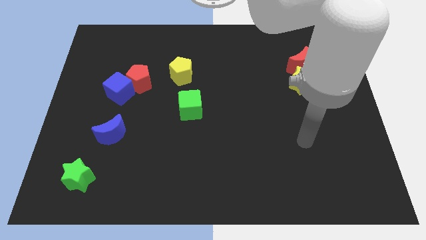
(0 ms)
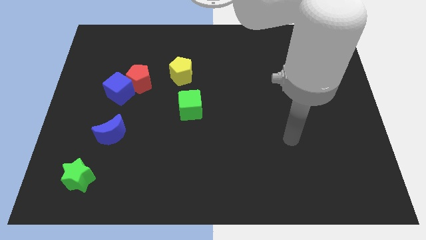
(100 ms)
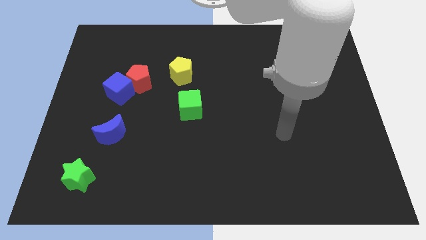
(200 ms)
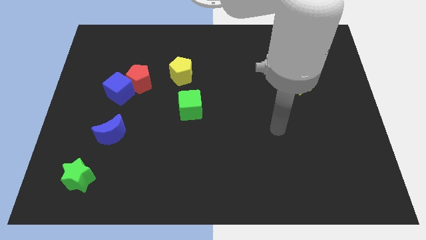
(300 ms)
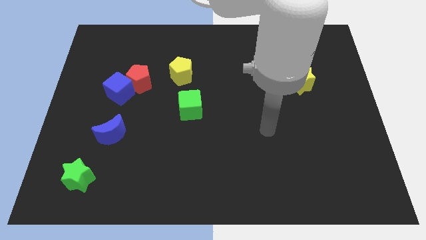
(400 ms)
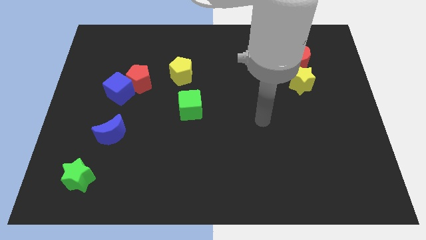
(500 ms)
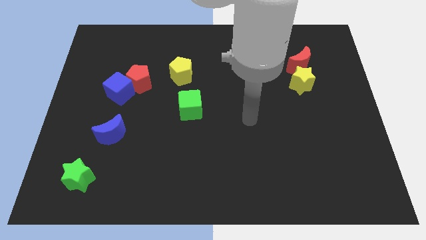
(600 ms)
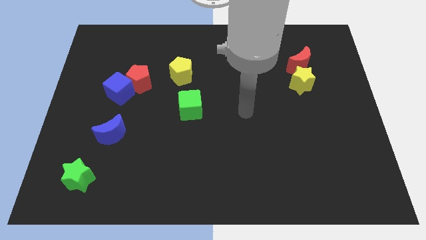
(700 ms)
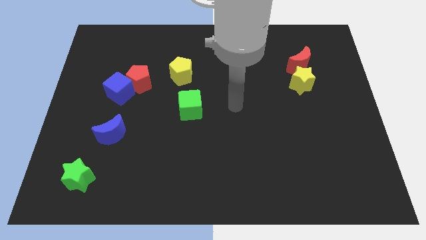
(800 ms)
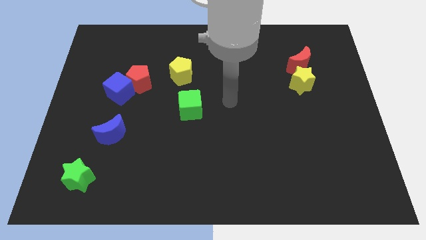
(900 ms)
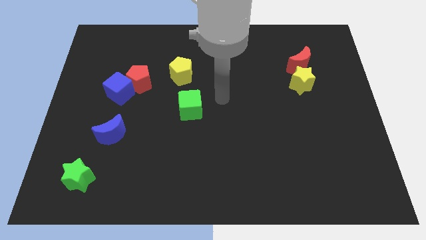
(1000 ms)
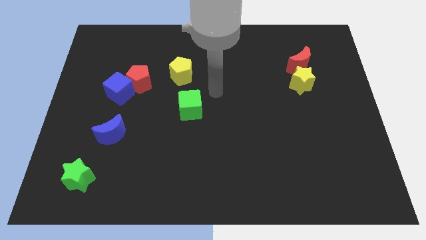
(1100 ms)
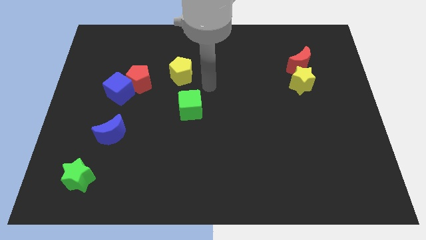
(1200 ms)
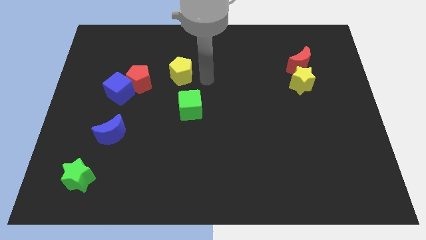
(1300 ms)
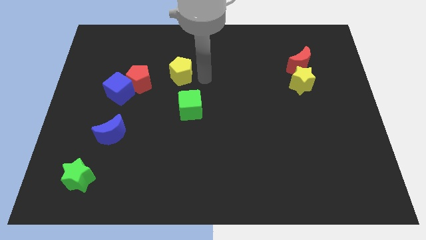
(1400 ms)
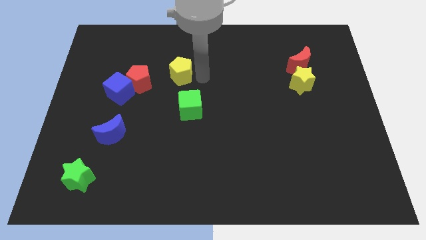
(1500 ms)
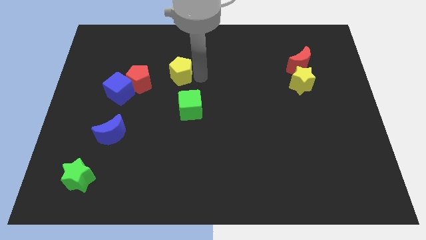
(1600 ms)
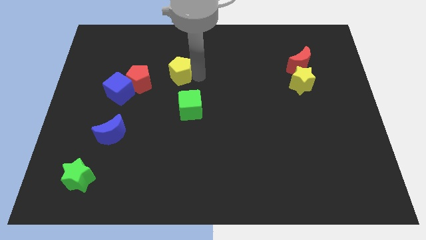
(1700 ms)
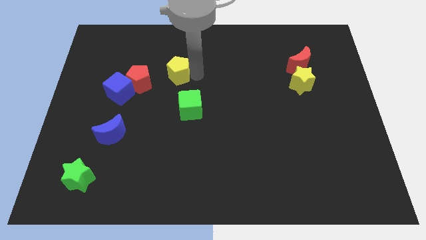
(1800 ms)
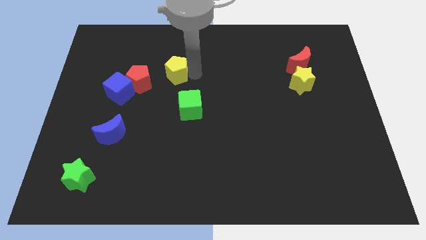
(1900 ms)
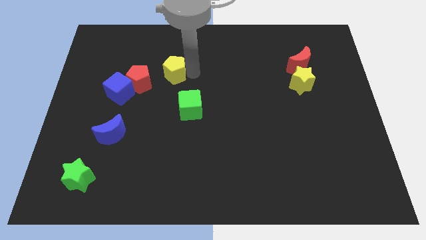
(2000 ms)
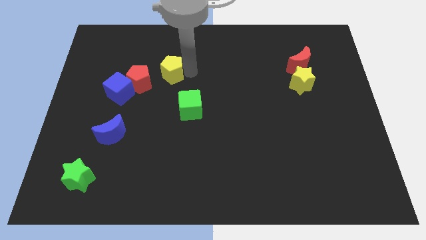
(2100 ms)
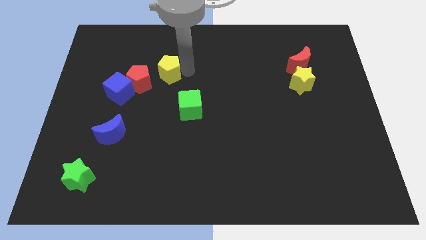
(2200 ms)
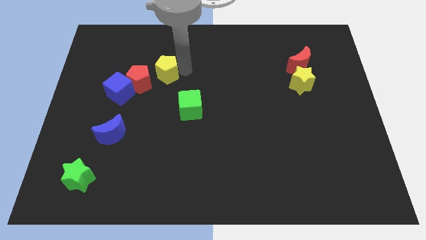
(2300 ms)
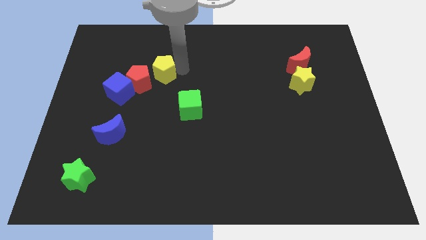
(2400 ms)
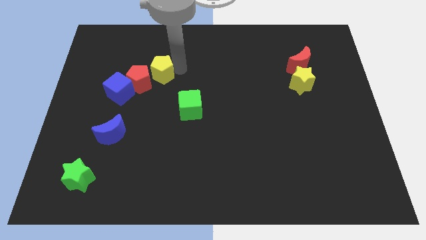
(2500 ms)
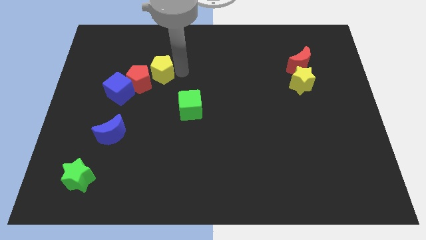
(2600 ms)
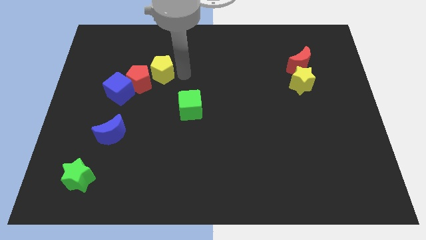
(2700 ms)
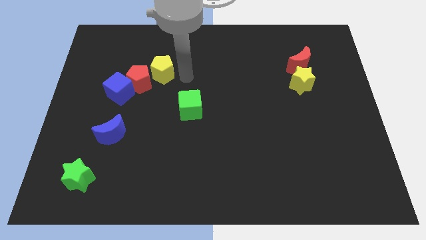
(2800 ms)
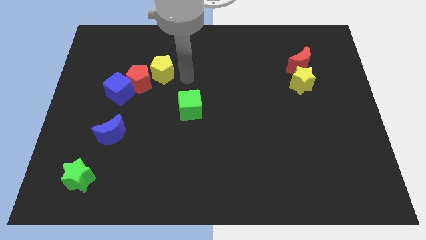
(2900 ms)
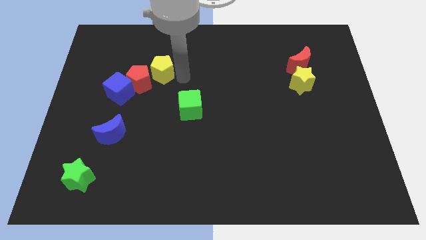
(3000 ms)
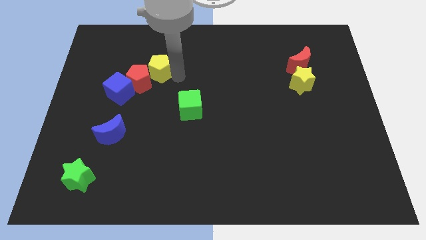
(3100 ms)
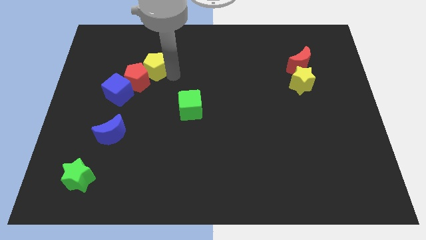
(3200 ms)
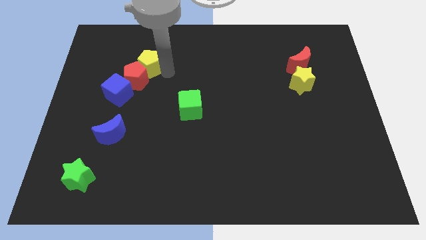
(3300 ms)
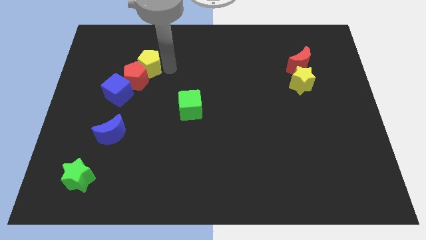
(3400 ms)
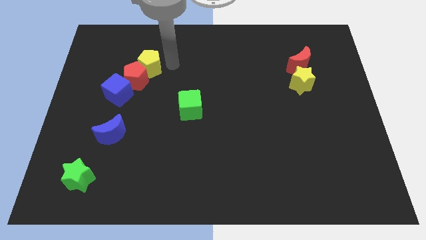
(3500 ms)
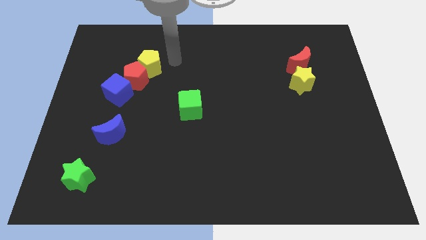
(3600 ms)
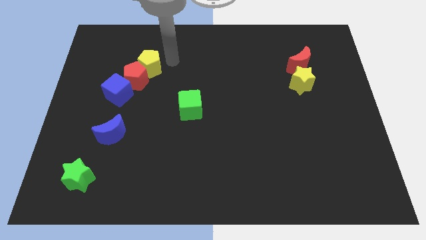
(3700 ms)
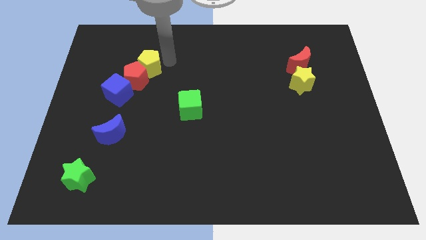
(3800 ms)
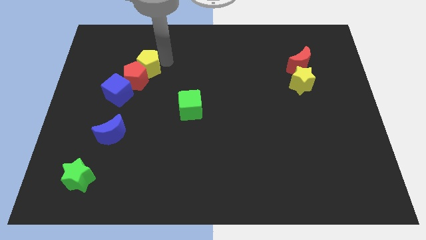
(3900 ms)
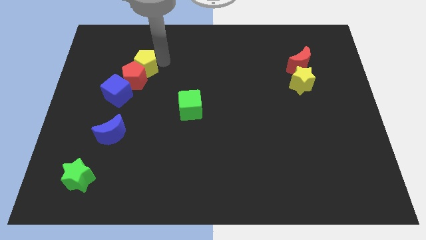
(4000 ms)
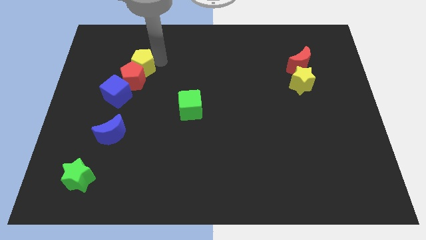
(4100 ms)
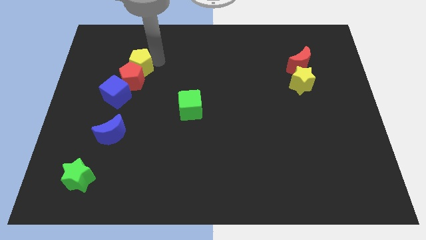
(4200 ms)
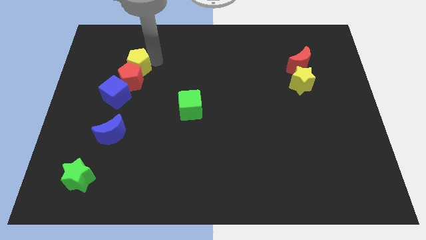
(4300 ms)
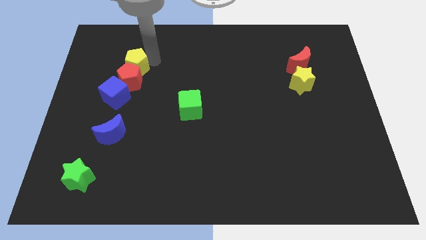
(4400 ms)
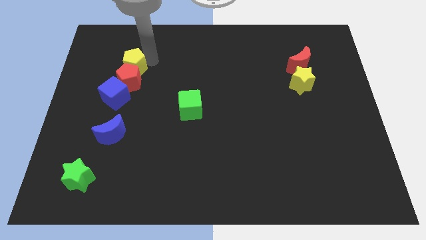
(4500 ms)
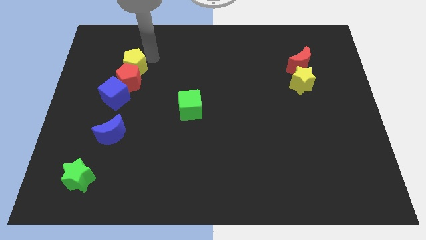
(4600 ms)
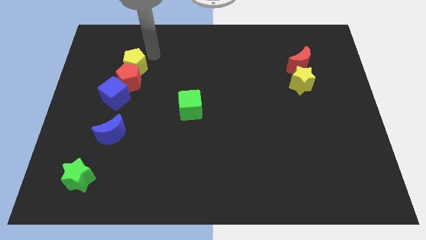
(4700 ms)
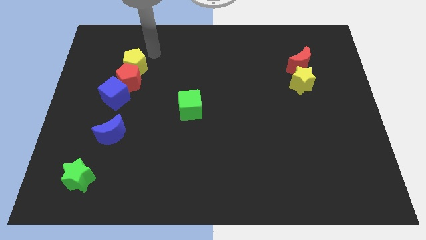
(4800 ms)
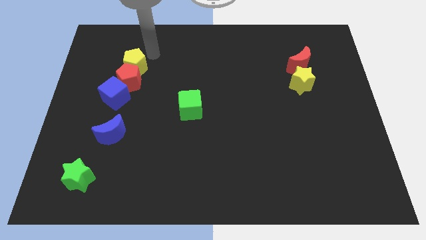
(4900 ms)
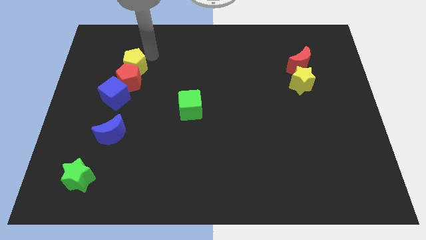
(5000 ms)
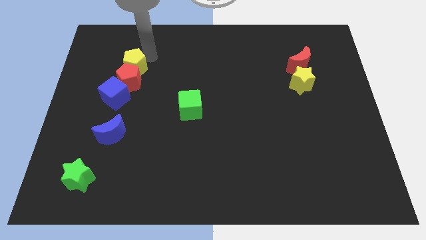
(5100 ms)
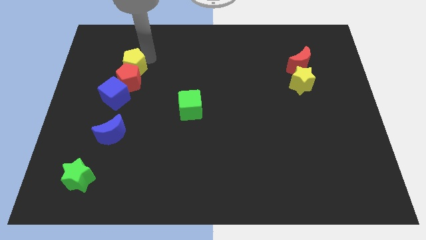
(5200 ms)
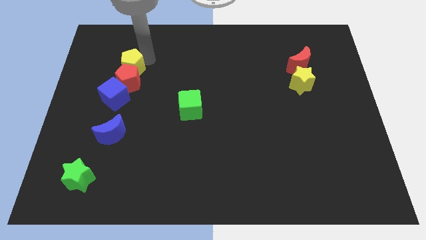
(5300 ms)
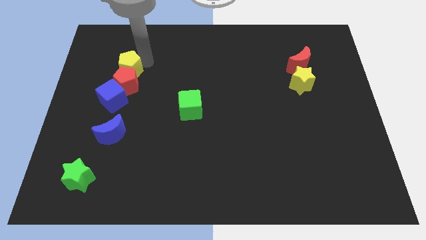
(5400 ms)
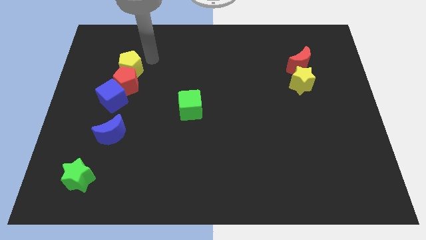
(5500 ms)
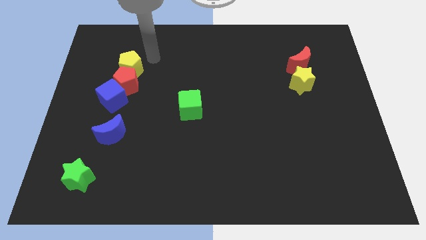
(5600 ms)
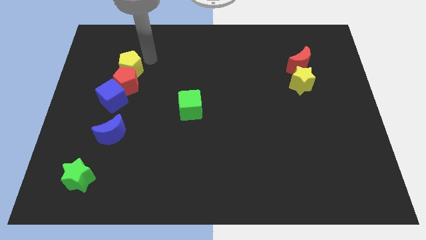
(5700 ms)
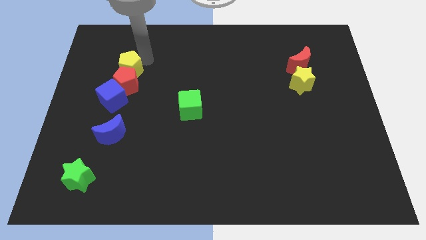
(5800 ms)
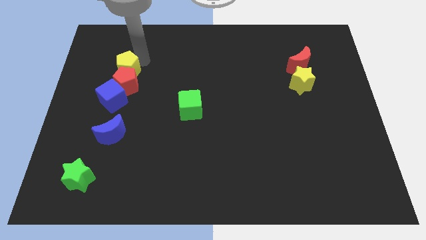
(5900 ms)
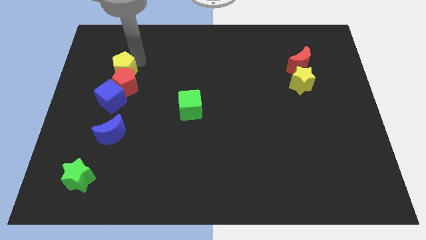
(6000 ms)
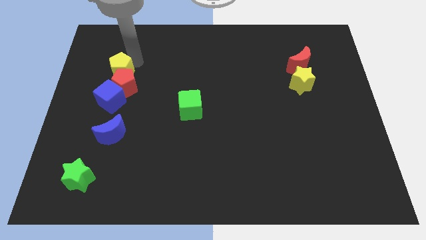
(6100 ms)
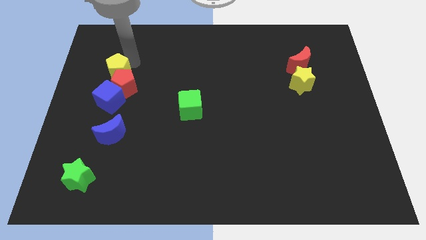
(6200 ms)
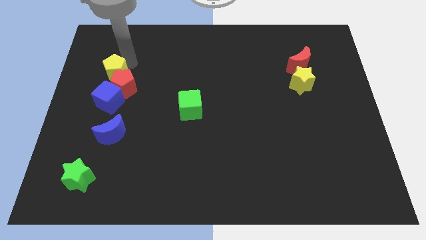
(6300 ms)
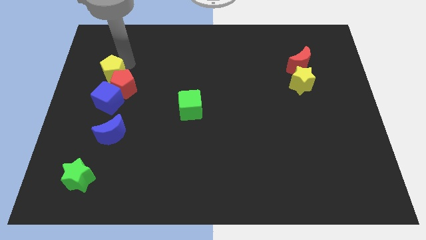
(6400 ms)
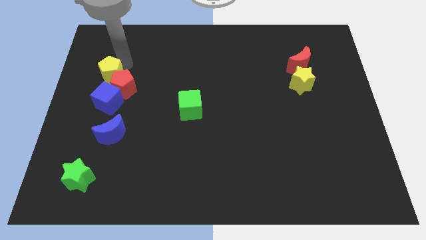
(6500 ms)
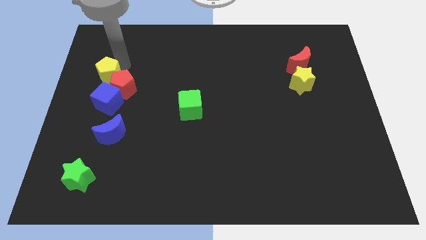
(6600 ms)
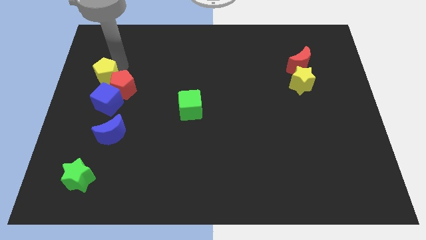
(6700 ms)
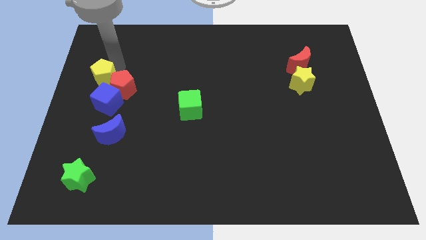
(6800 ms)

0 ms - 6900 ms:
slide the yellow pentagon to the center left
